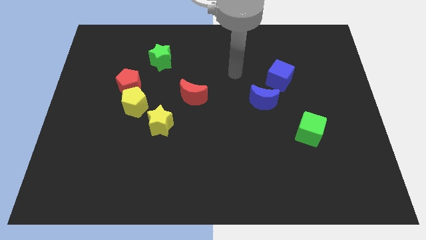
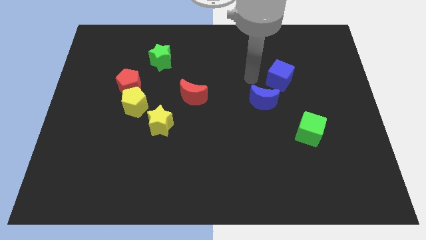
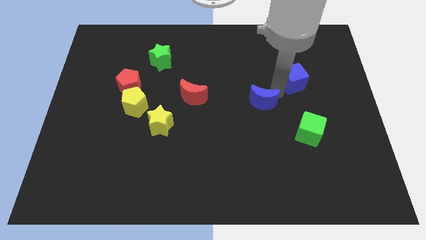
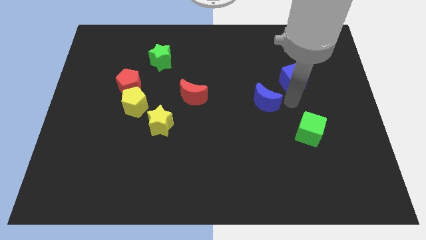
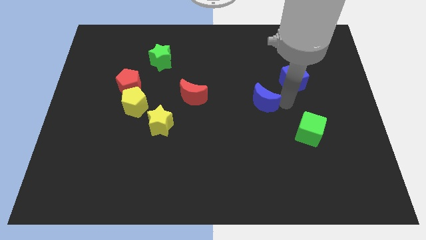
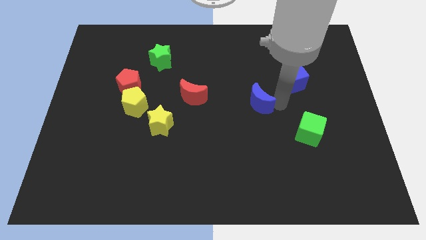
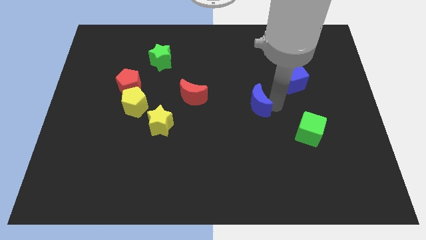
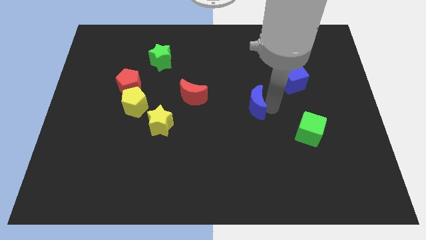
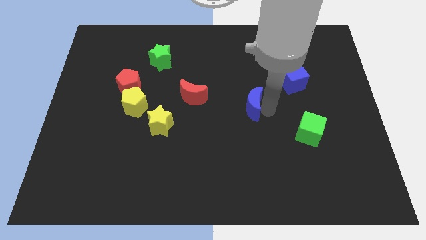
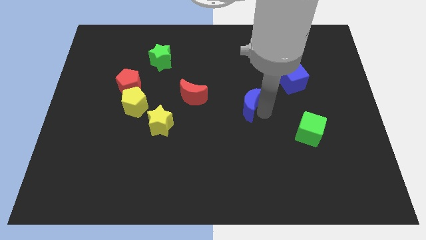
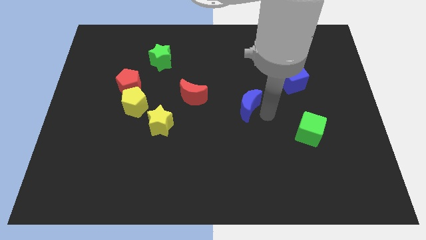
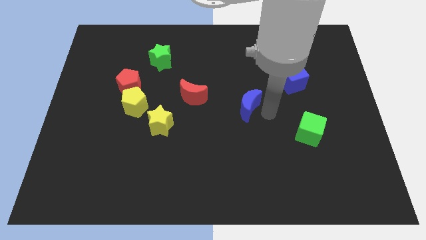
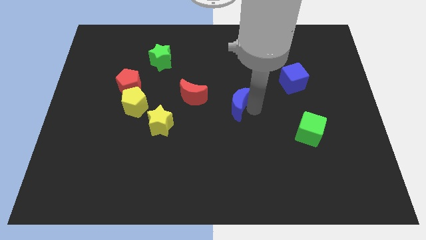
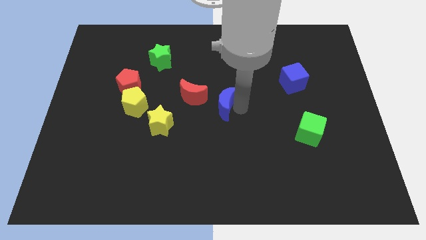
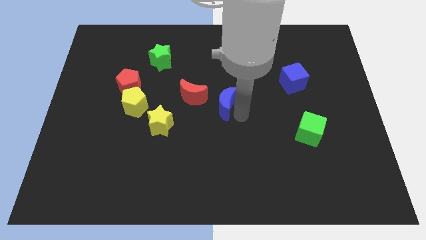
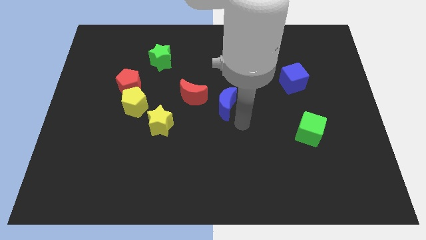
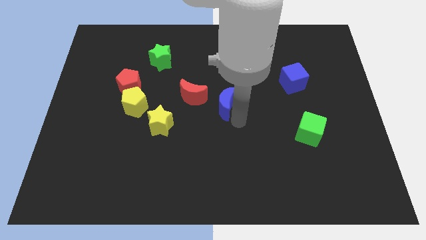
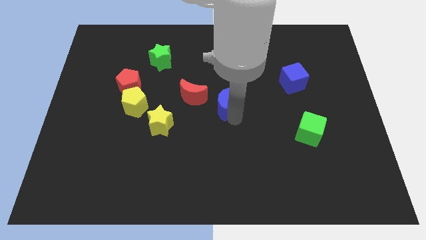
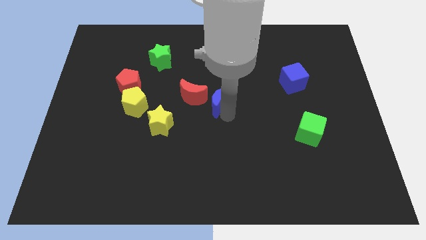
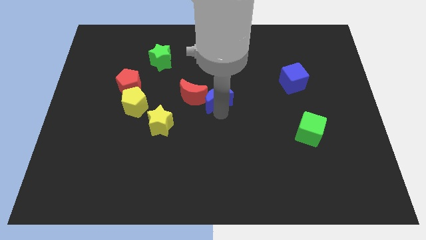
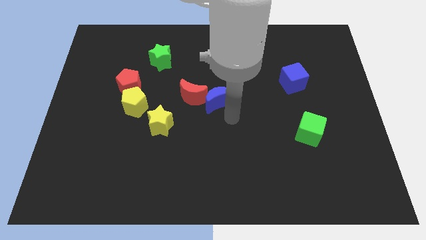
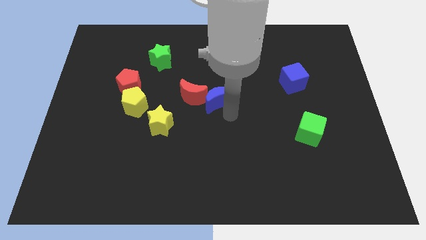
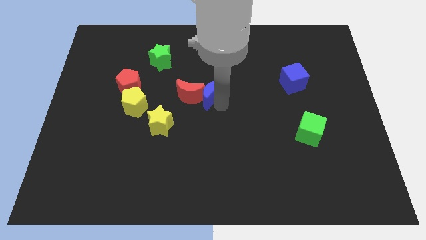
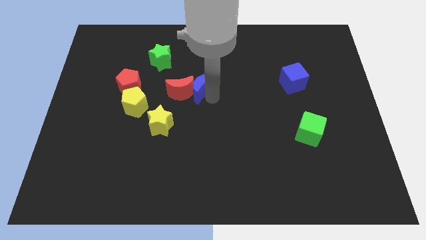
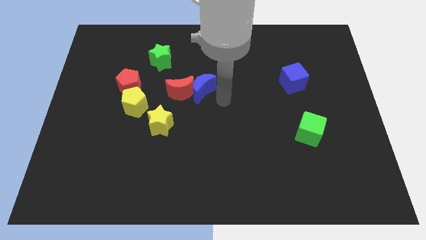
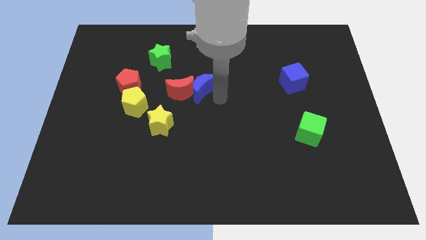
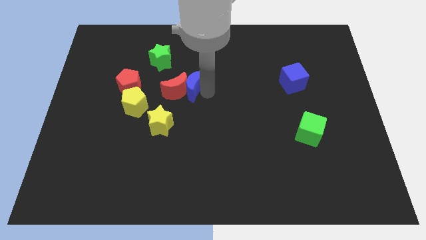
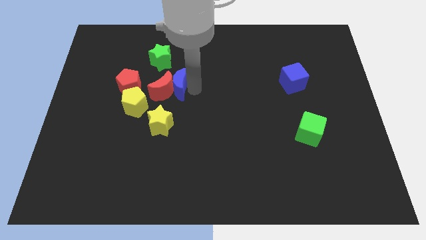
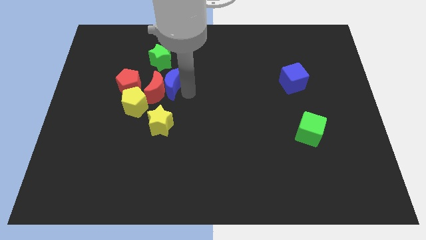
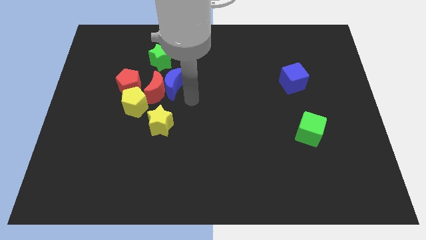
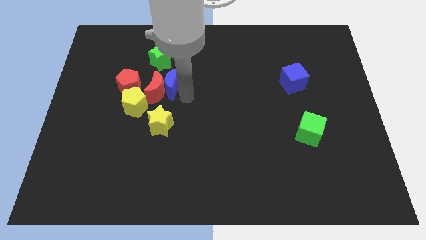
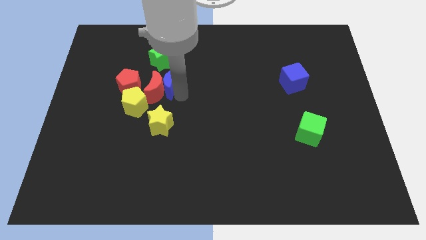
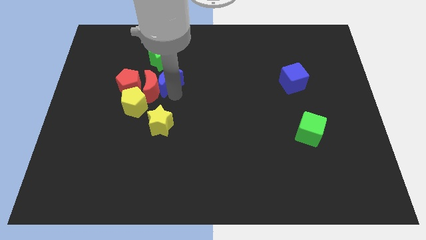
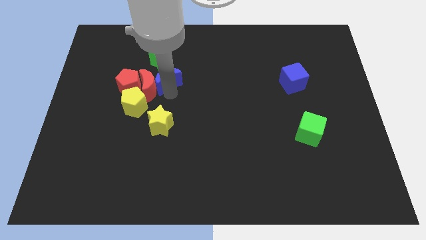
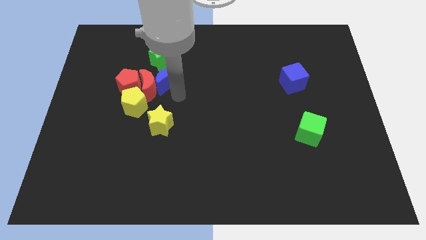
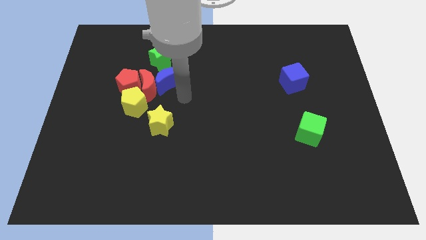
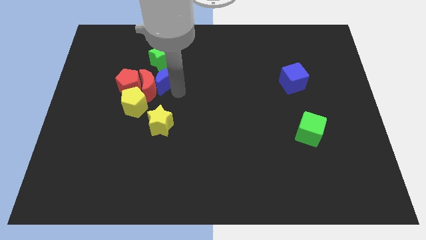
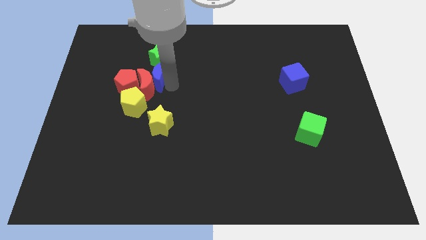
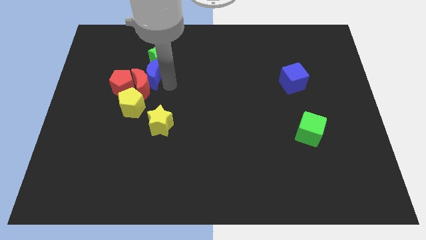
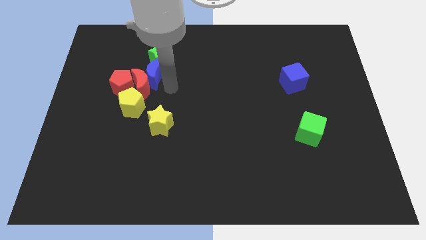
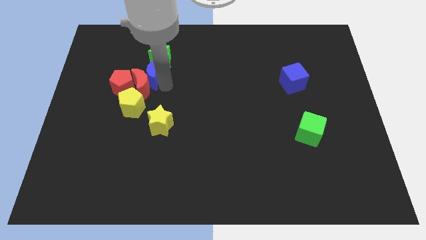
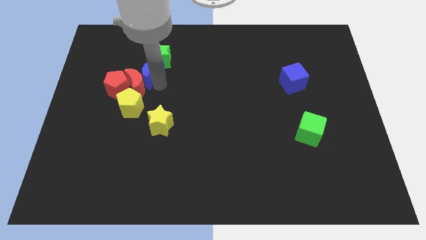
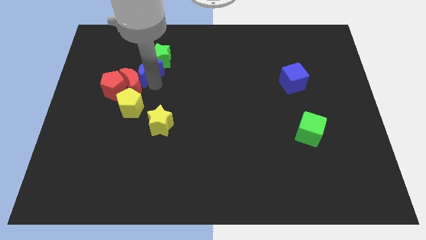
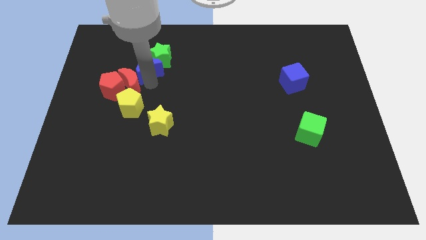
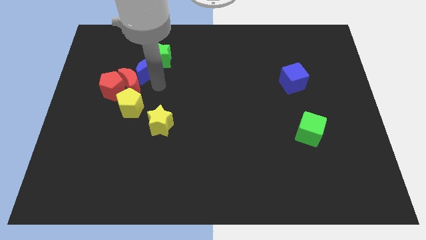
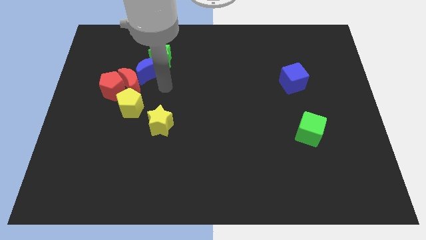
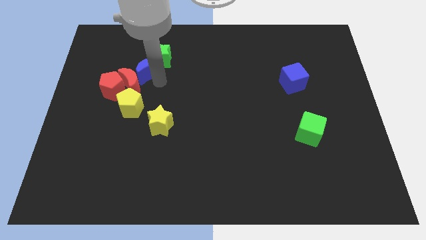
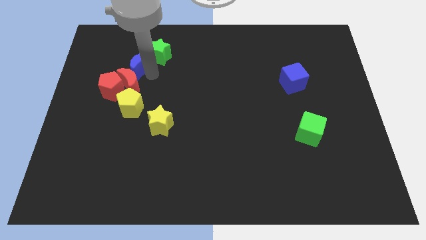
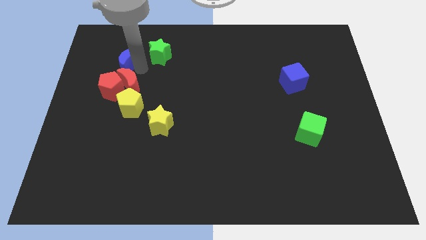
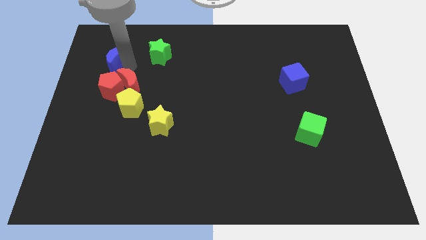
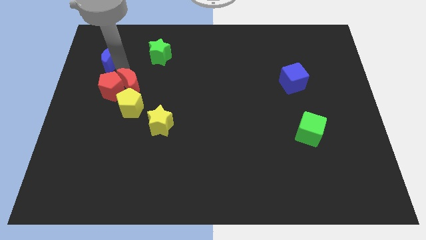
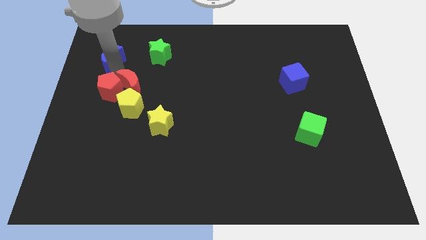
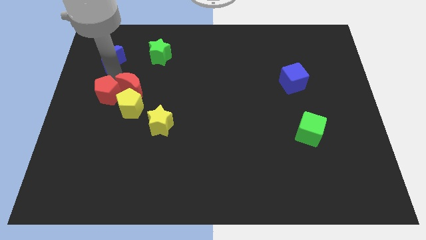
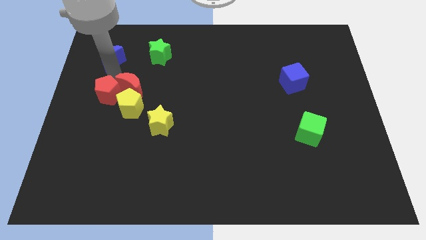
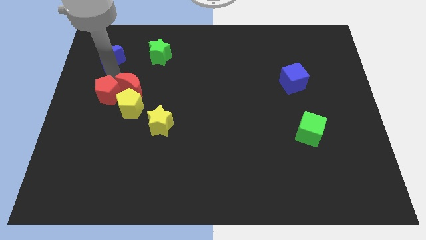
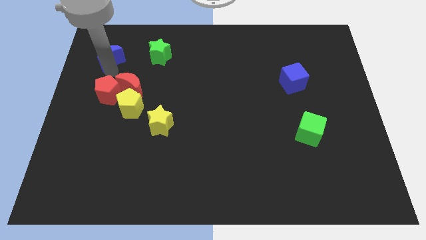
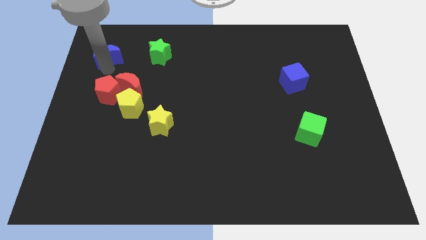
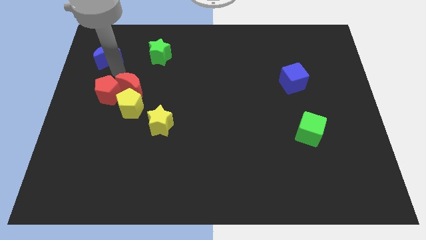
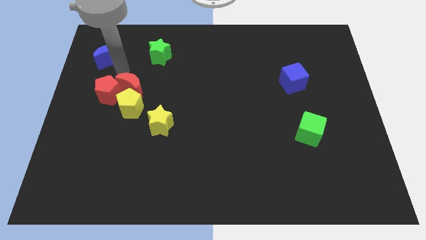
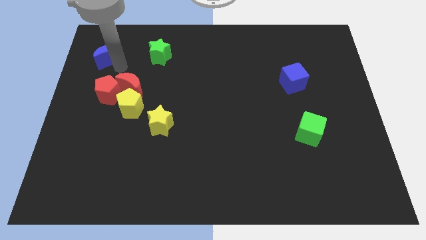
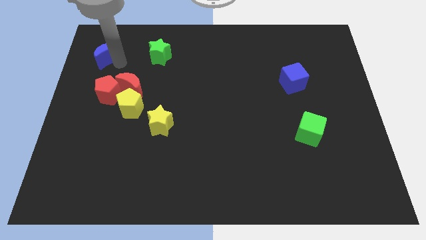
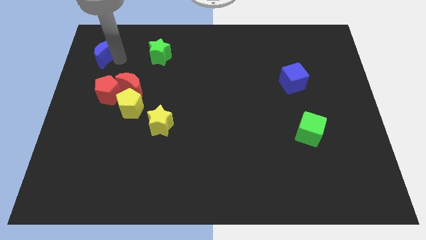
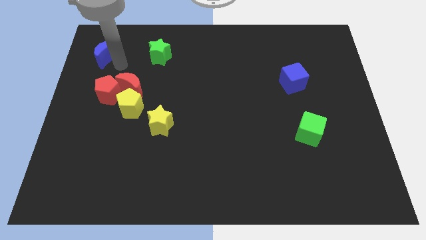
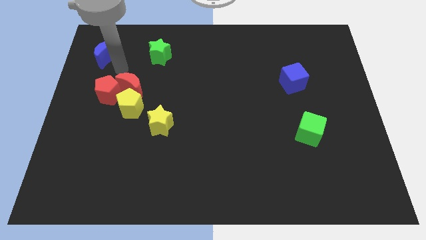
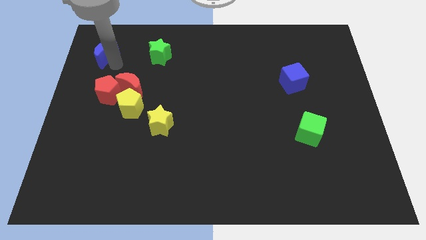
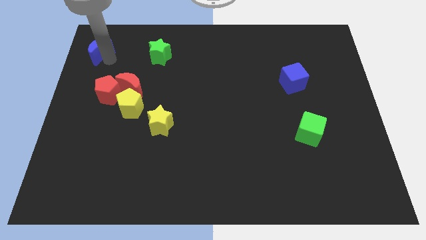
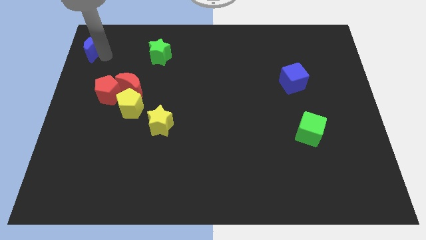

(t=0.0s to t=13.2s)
slide the blue moon to the top left corner
